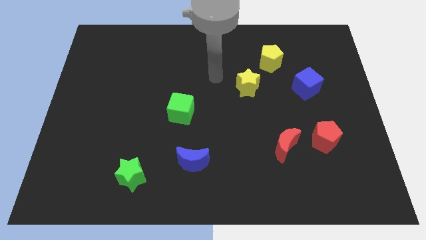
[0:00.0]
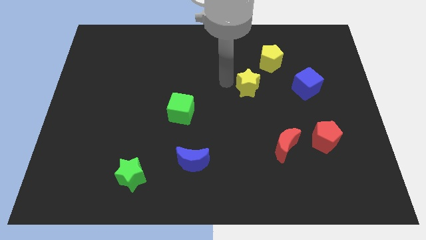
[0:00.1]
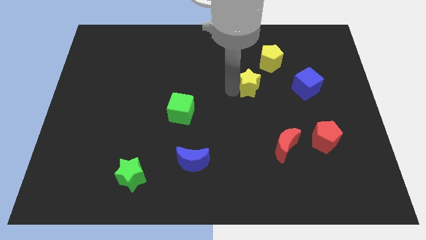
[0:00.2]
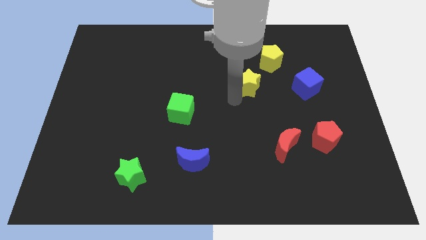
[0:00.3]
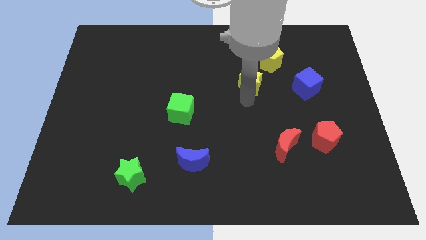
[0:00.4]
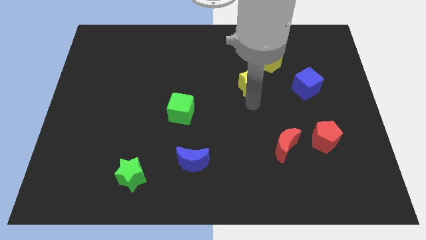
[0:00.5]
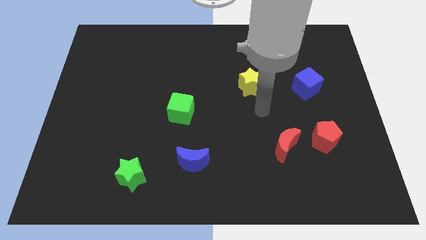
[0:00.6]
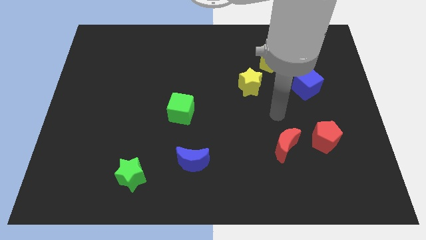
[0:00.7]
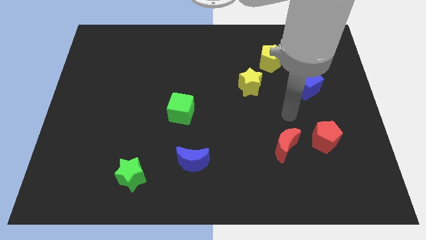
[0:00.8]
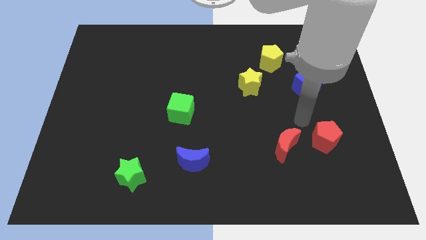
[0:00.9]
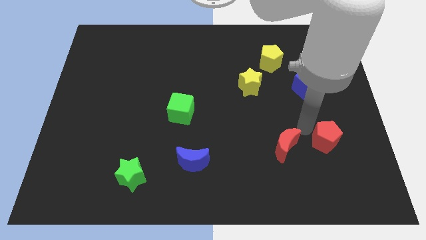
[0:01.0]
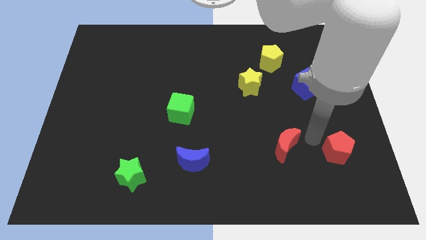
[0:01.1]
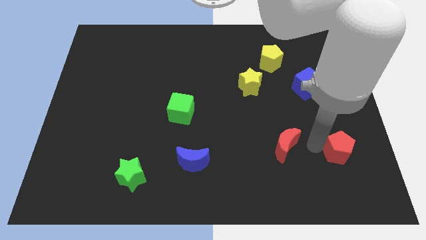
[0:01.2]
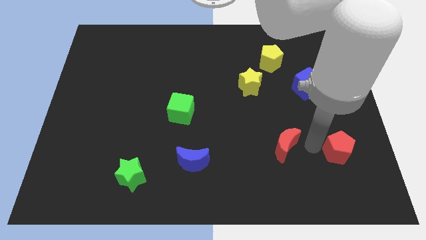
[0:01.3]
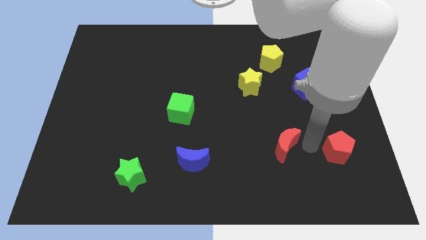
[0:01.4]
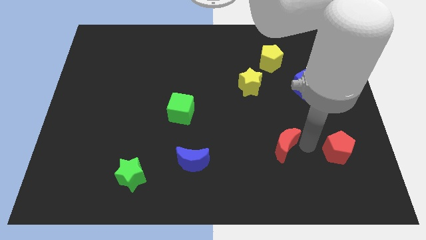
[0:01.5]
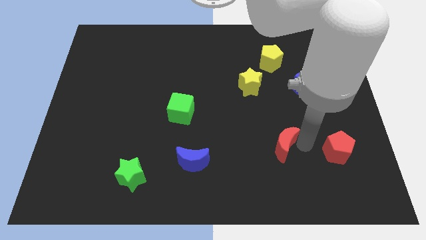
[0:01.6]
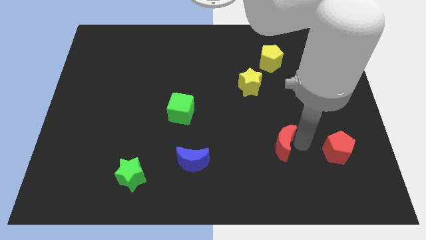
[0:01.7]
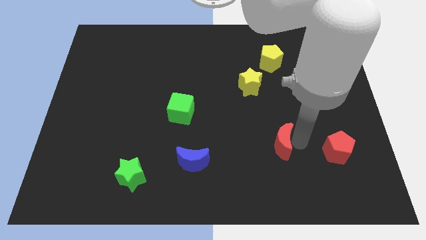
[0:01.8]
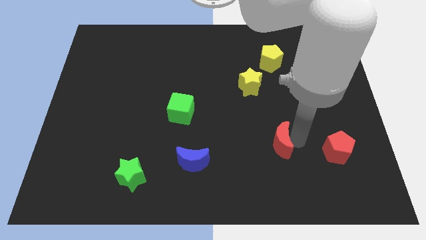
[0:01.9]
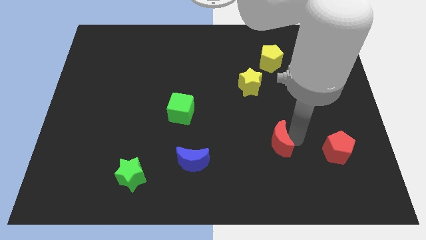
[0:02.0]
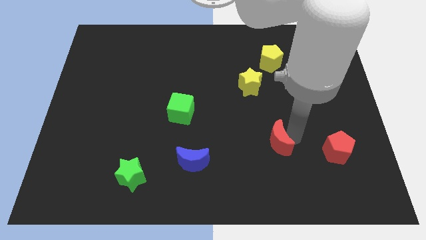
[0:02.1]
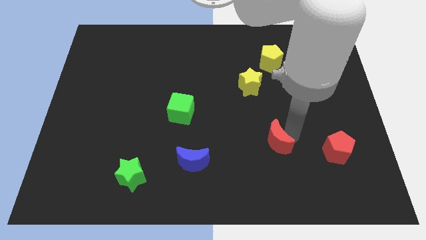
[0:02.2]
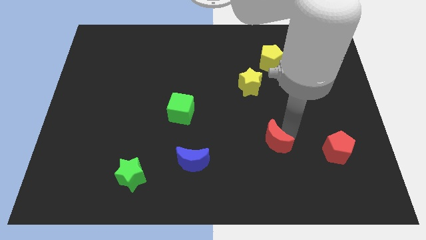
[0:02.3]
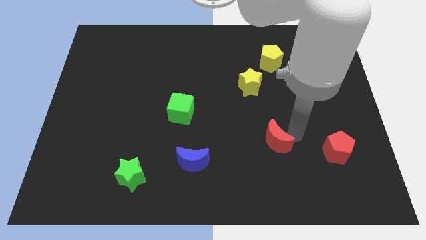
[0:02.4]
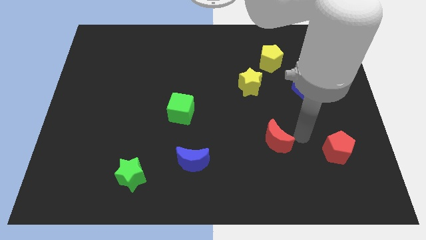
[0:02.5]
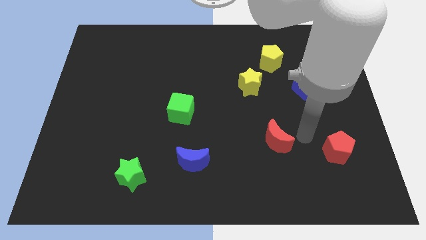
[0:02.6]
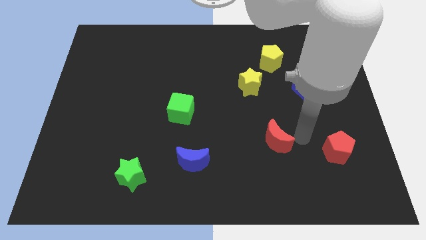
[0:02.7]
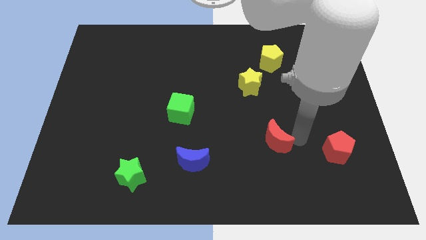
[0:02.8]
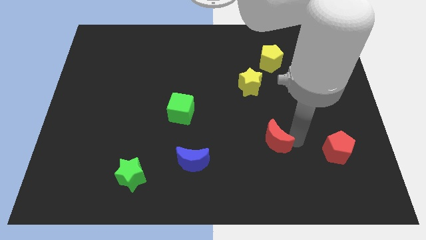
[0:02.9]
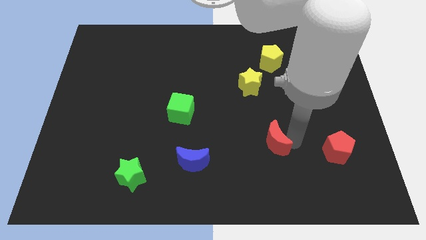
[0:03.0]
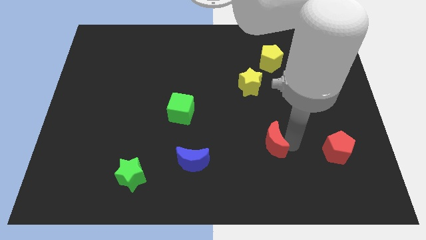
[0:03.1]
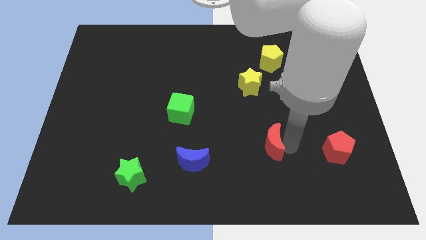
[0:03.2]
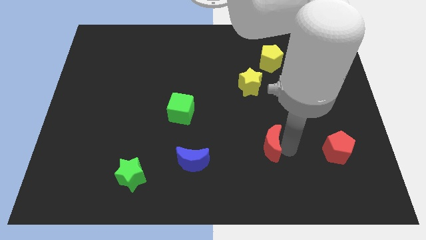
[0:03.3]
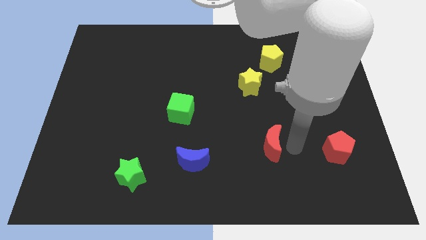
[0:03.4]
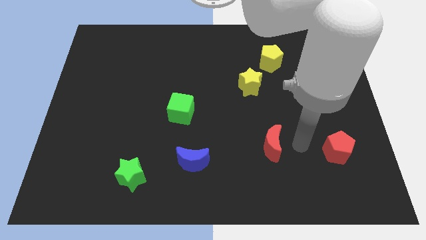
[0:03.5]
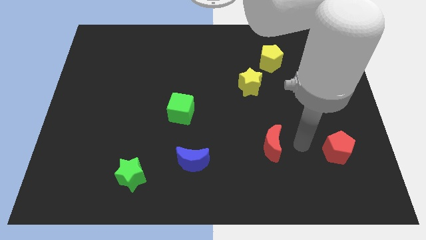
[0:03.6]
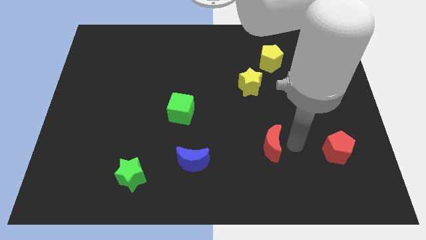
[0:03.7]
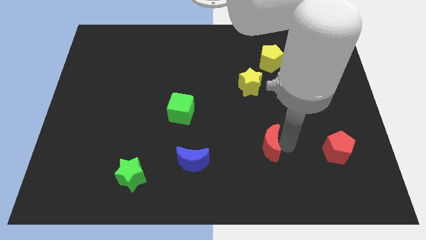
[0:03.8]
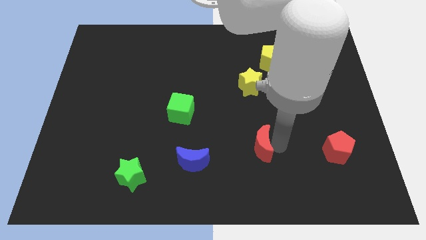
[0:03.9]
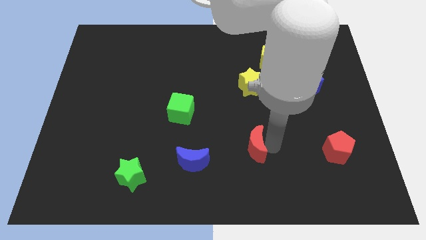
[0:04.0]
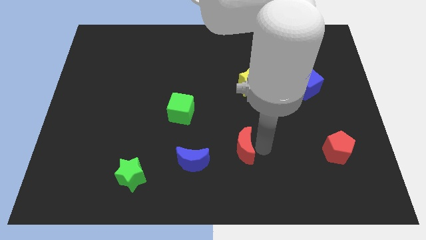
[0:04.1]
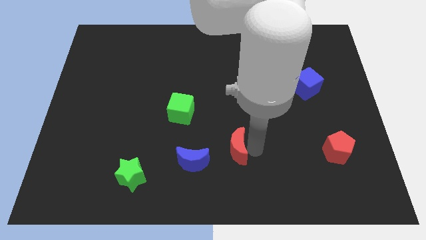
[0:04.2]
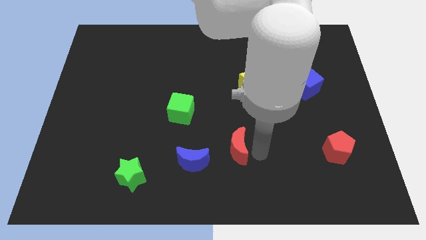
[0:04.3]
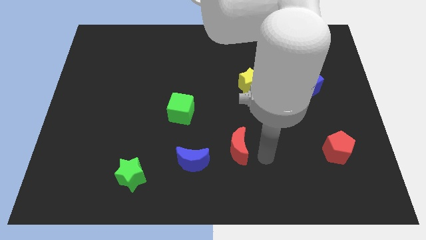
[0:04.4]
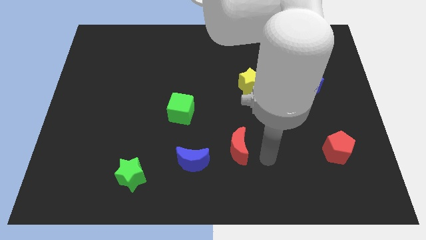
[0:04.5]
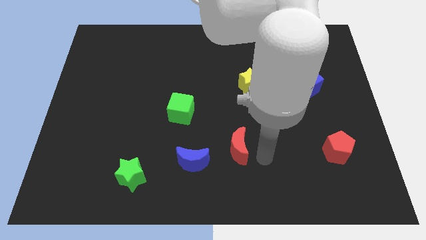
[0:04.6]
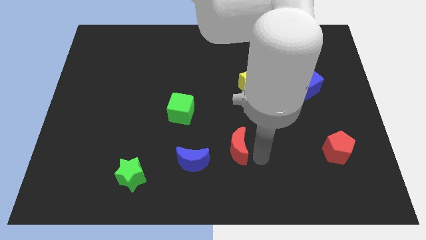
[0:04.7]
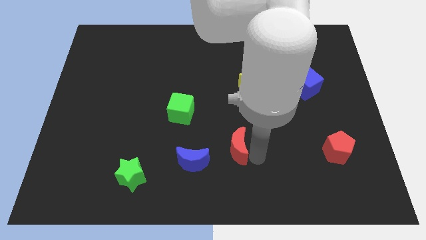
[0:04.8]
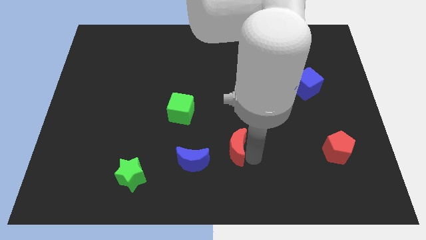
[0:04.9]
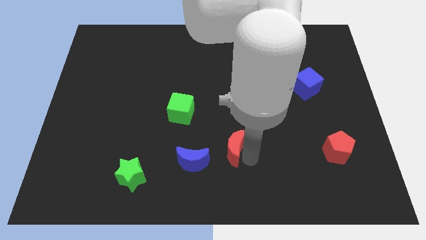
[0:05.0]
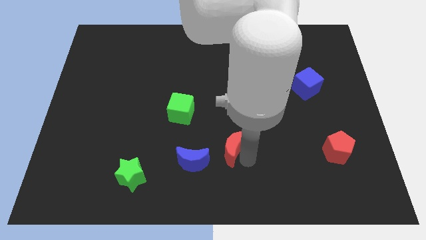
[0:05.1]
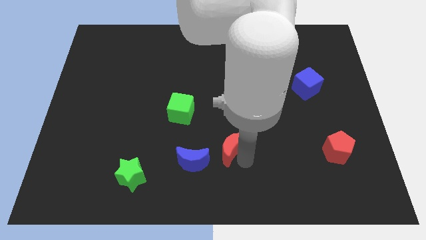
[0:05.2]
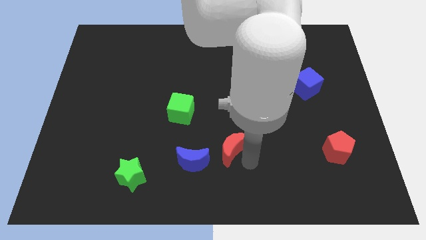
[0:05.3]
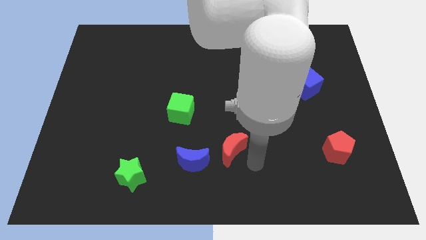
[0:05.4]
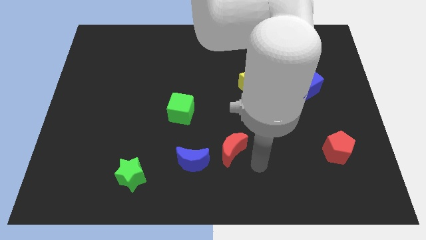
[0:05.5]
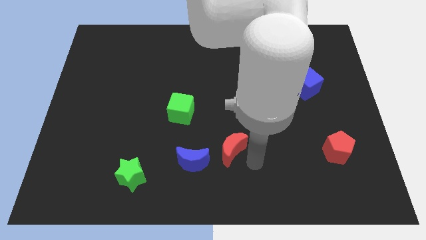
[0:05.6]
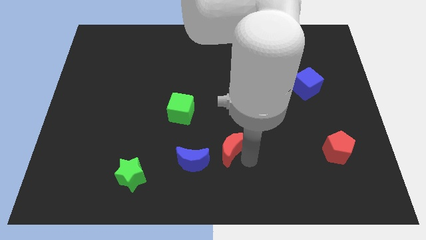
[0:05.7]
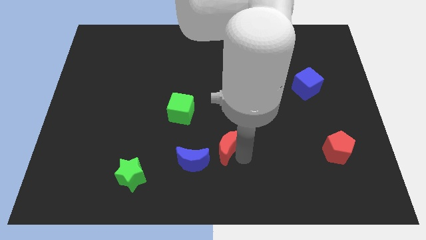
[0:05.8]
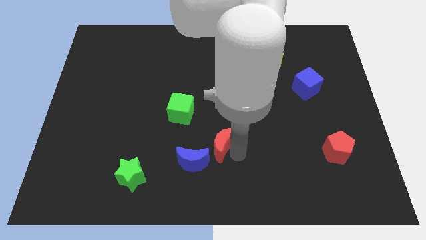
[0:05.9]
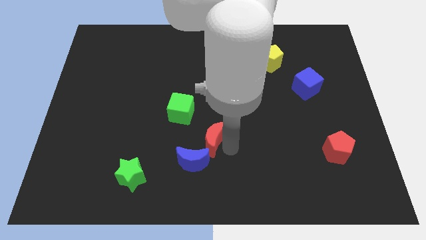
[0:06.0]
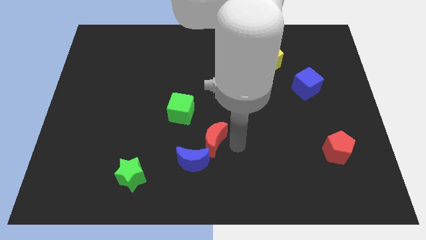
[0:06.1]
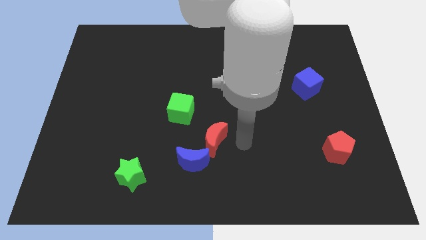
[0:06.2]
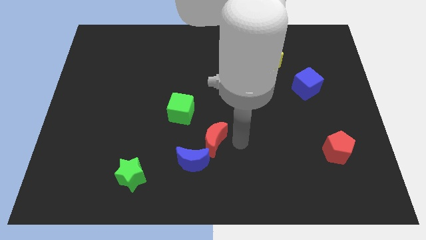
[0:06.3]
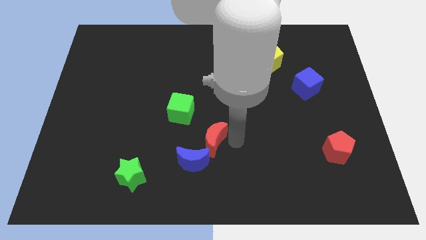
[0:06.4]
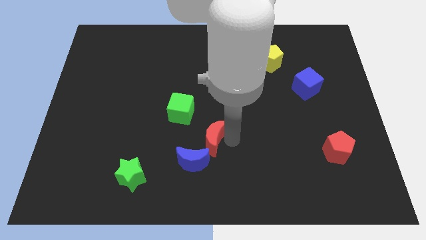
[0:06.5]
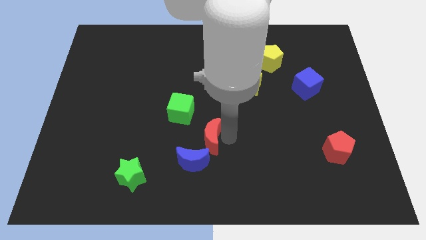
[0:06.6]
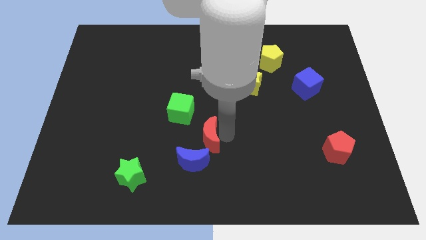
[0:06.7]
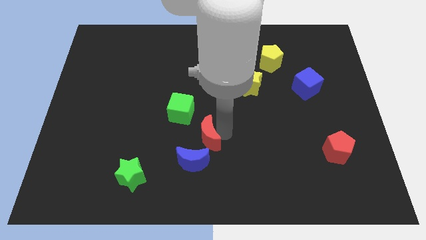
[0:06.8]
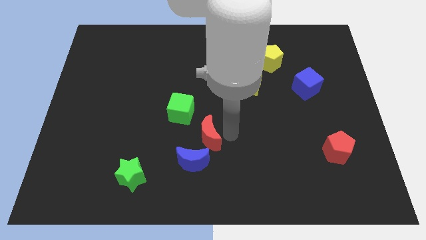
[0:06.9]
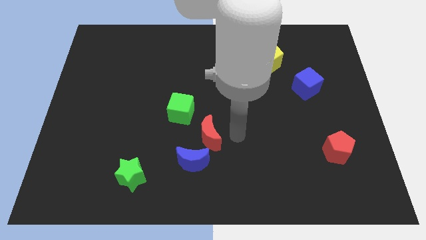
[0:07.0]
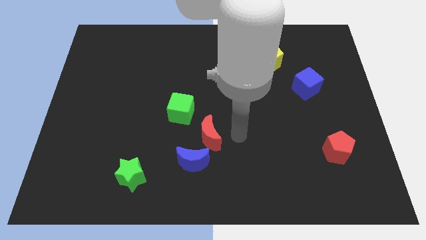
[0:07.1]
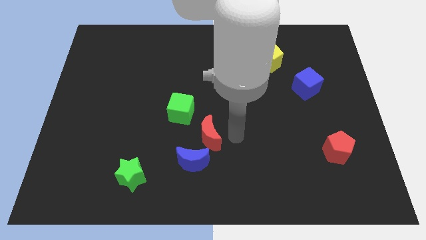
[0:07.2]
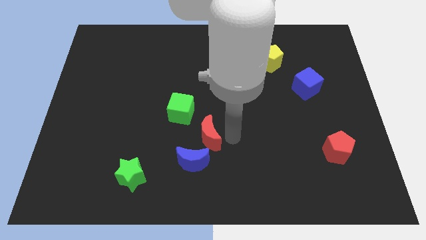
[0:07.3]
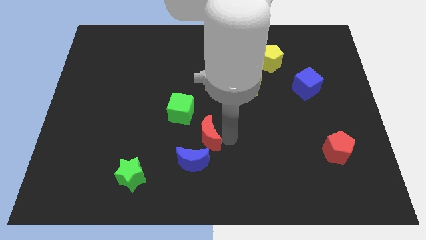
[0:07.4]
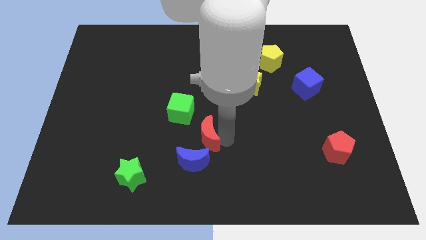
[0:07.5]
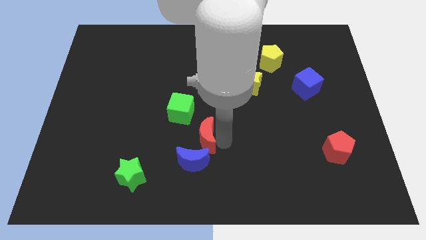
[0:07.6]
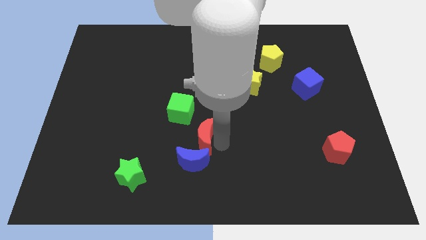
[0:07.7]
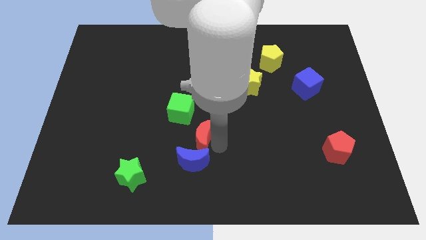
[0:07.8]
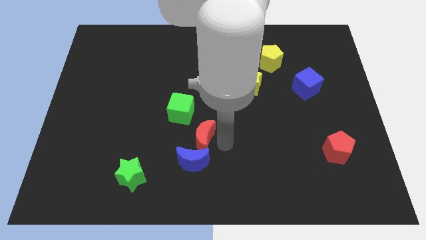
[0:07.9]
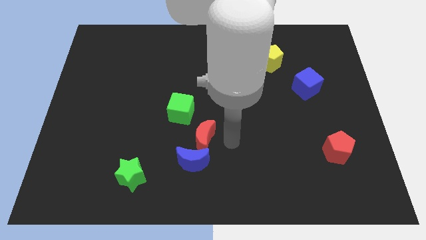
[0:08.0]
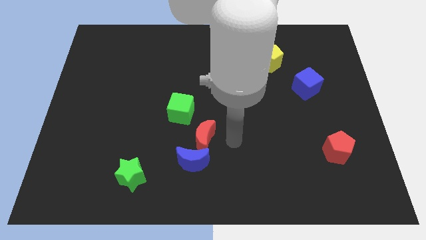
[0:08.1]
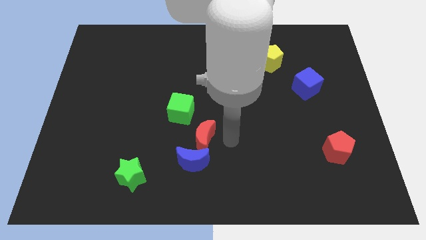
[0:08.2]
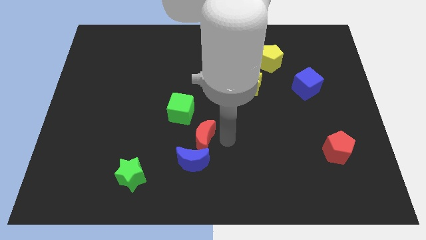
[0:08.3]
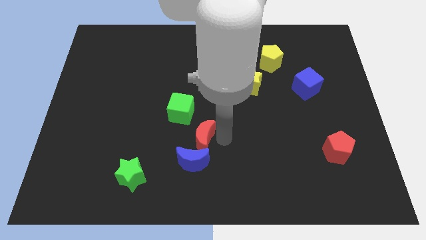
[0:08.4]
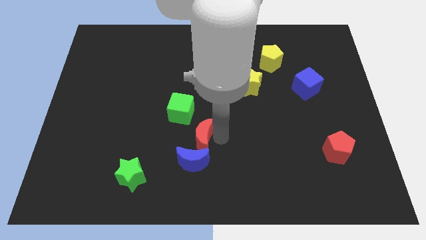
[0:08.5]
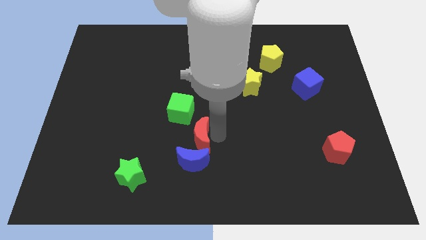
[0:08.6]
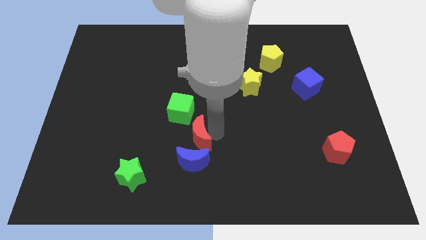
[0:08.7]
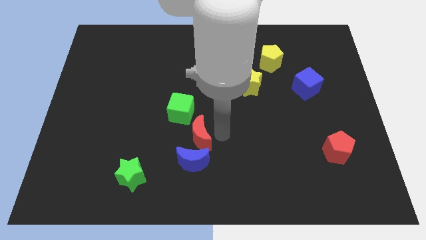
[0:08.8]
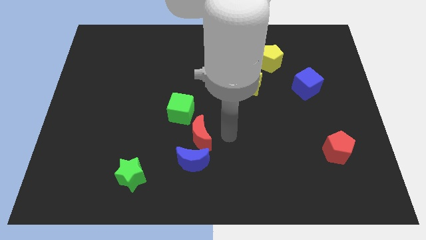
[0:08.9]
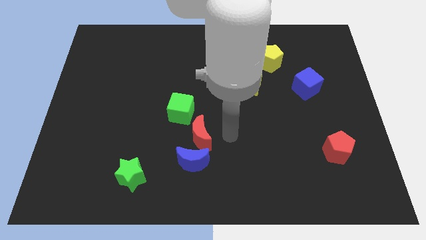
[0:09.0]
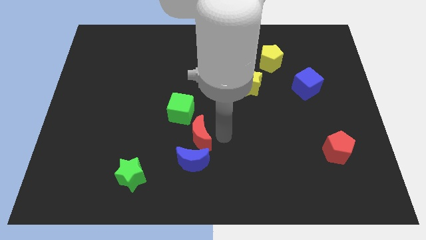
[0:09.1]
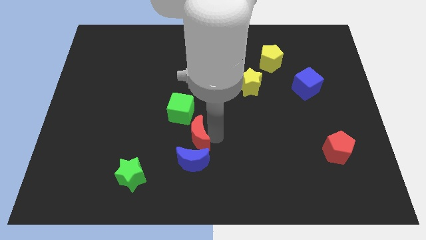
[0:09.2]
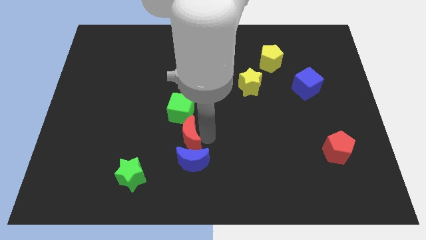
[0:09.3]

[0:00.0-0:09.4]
push the red moon to the left
